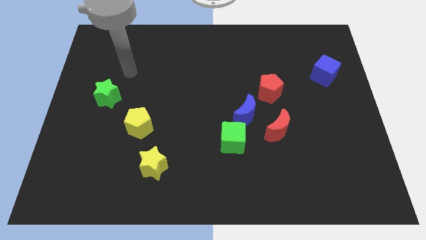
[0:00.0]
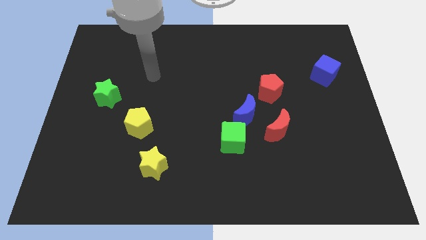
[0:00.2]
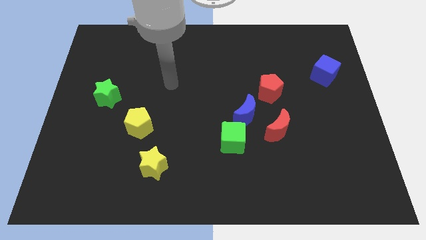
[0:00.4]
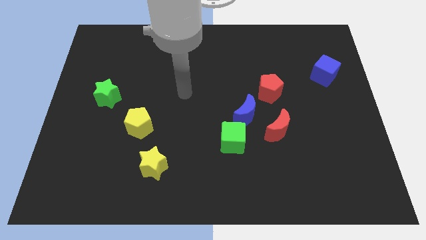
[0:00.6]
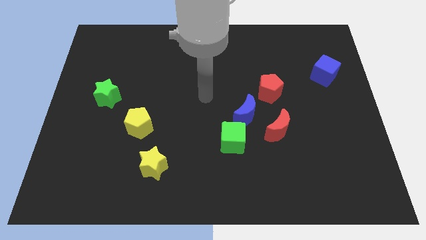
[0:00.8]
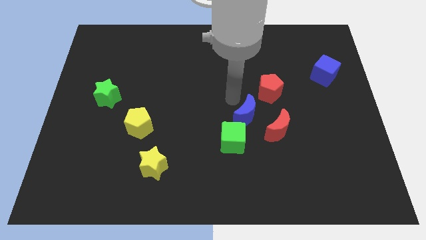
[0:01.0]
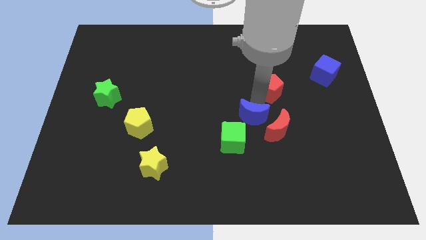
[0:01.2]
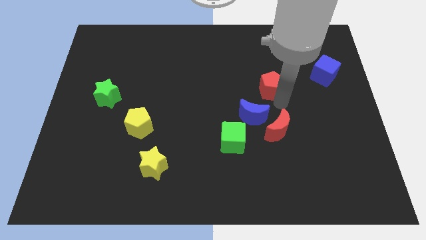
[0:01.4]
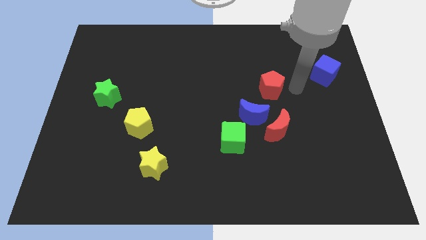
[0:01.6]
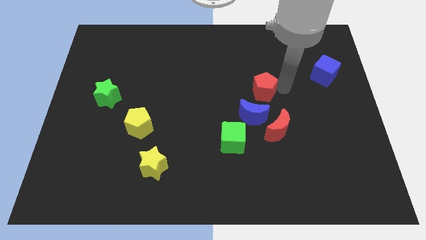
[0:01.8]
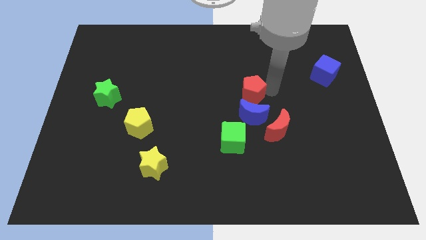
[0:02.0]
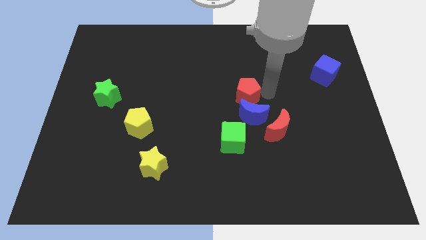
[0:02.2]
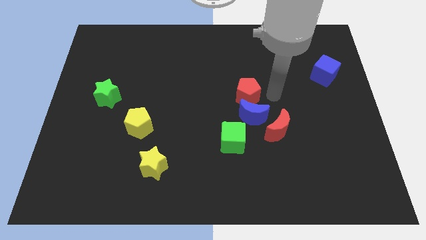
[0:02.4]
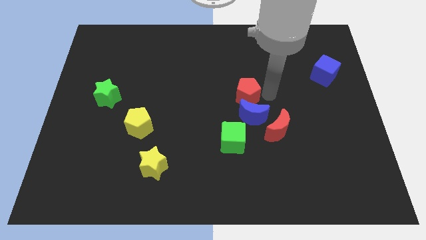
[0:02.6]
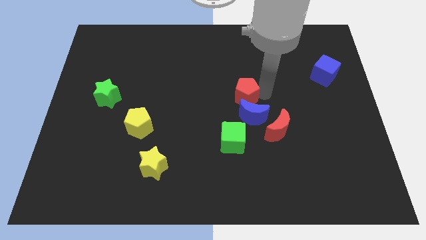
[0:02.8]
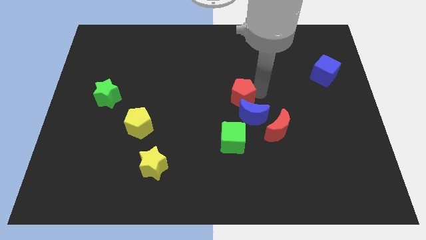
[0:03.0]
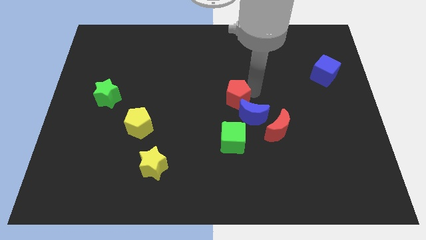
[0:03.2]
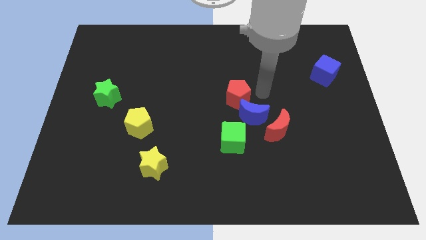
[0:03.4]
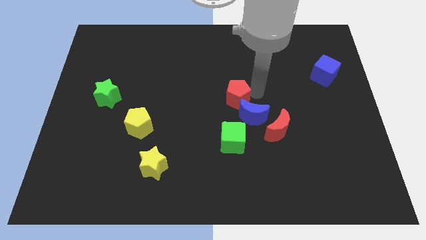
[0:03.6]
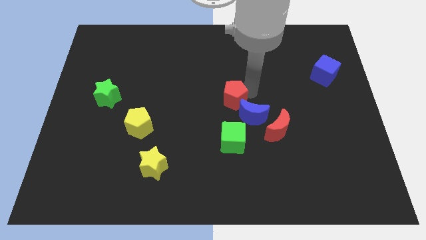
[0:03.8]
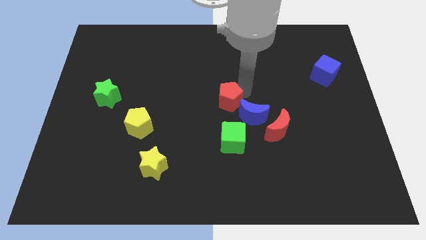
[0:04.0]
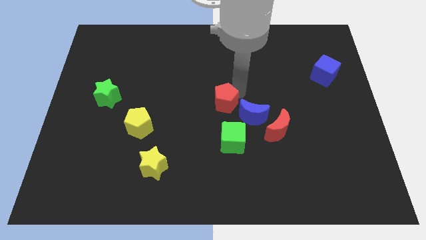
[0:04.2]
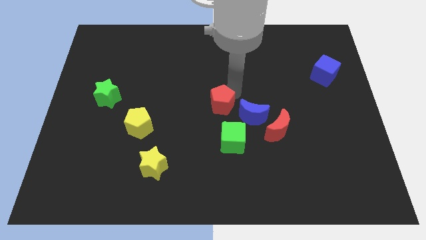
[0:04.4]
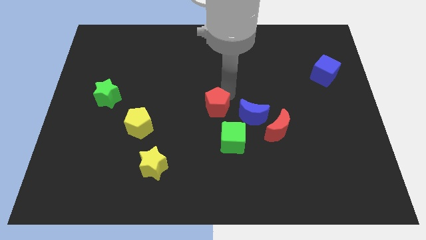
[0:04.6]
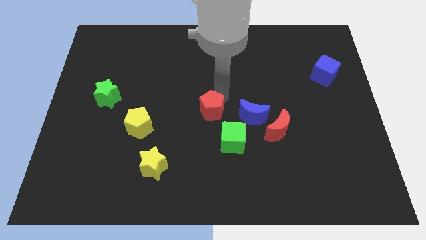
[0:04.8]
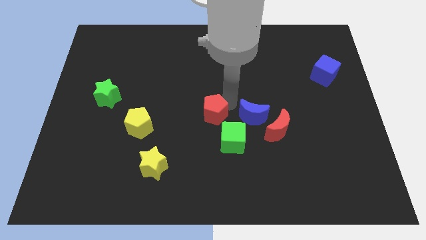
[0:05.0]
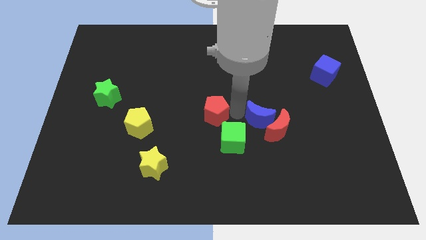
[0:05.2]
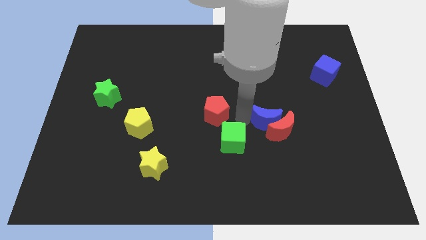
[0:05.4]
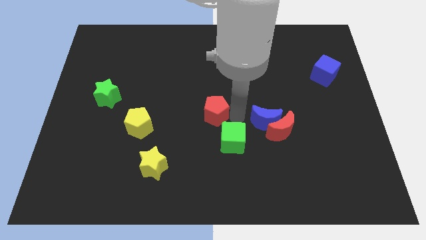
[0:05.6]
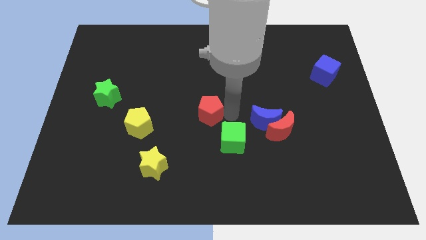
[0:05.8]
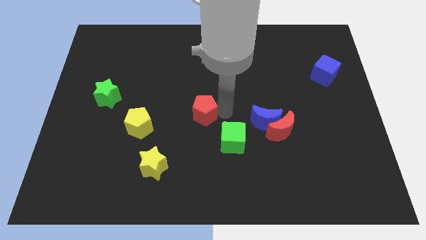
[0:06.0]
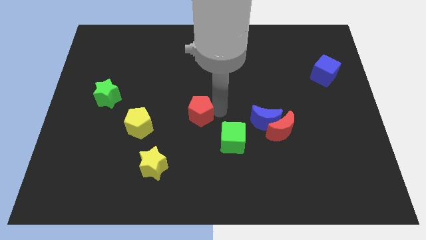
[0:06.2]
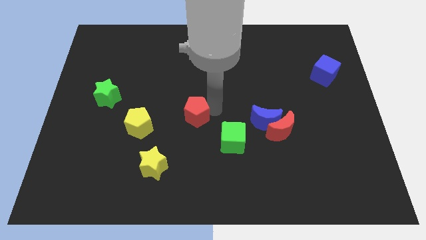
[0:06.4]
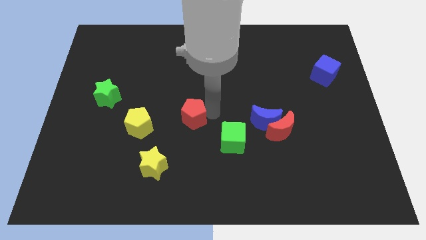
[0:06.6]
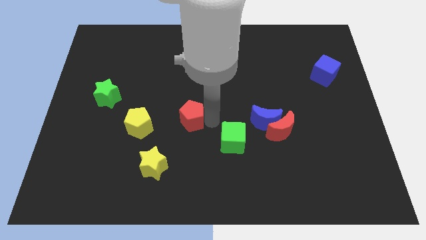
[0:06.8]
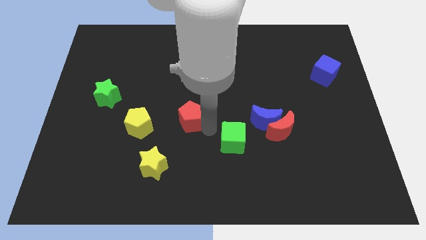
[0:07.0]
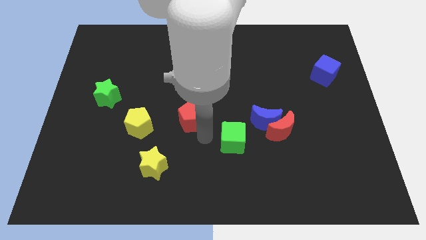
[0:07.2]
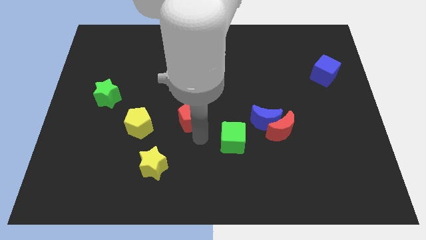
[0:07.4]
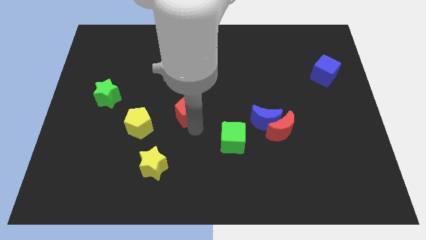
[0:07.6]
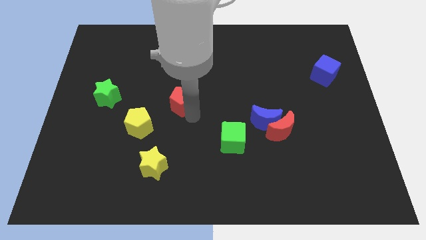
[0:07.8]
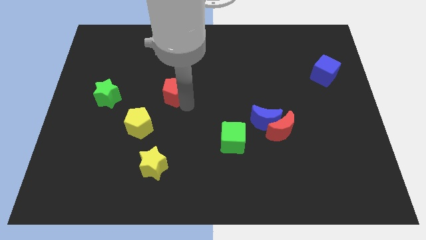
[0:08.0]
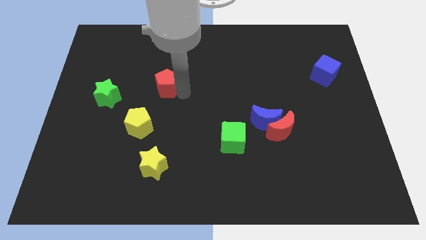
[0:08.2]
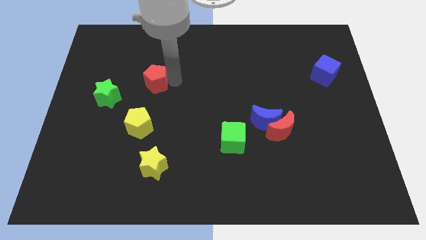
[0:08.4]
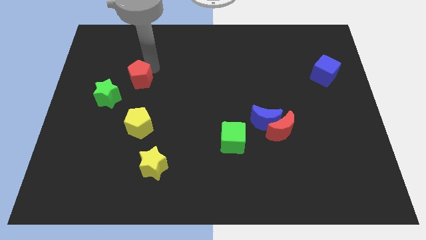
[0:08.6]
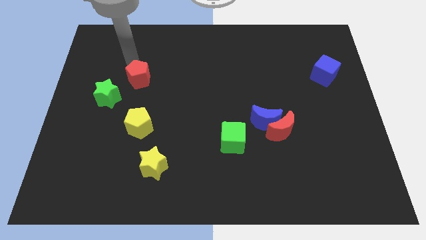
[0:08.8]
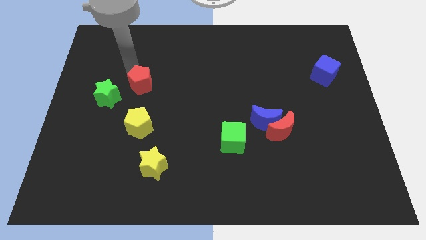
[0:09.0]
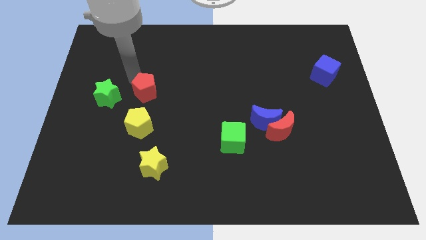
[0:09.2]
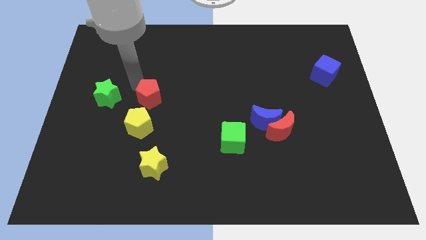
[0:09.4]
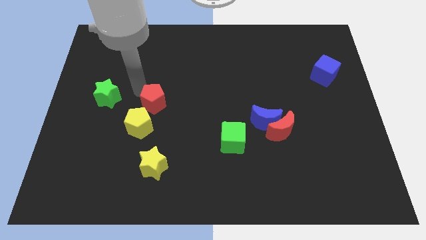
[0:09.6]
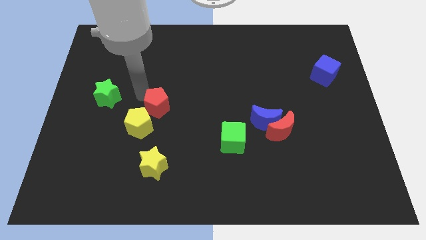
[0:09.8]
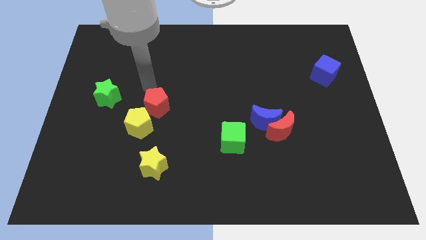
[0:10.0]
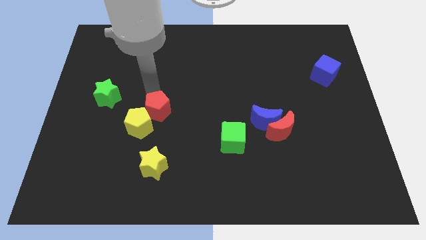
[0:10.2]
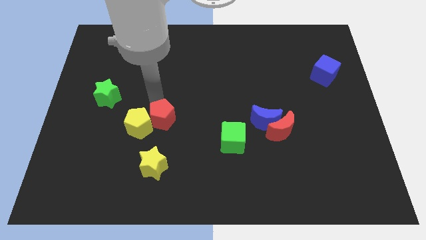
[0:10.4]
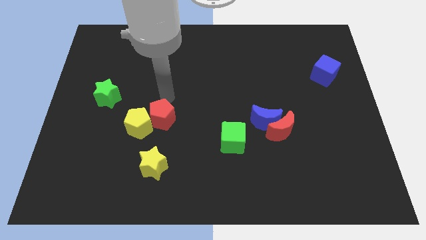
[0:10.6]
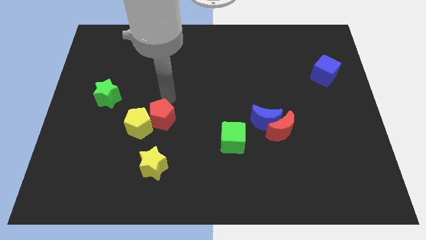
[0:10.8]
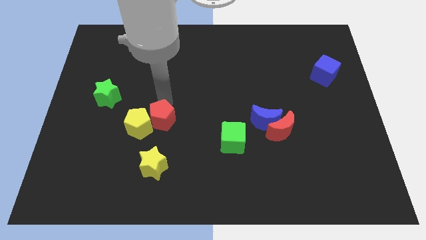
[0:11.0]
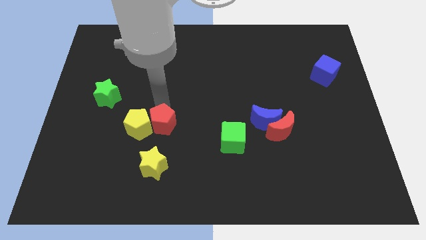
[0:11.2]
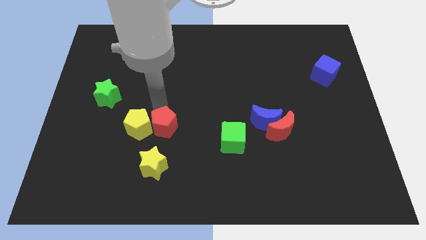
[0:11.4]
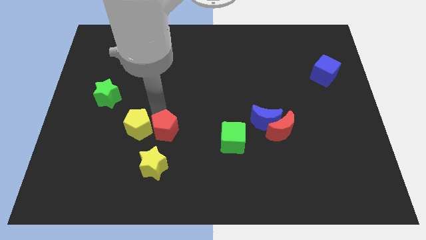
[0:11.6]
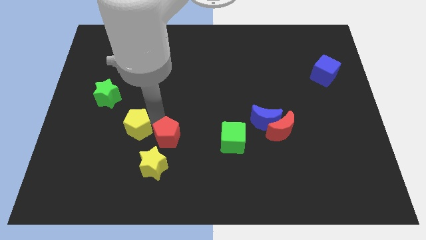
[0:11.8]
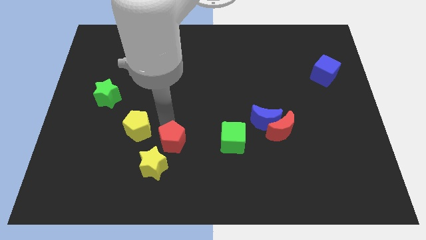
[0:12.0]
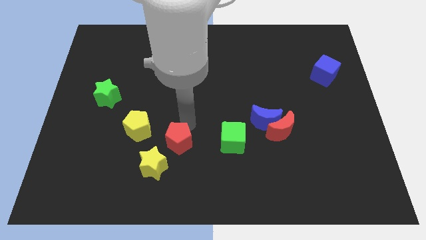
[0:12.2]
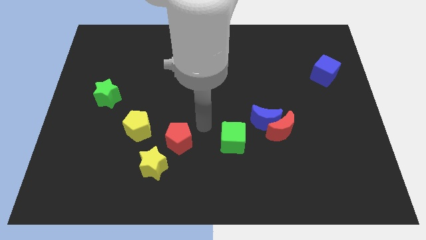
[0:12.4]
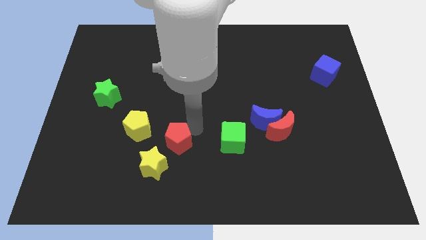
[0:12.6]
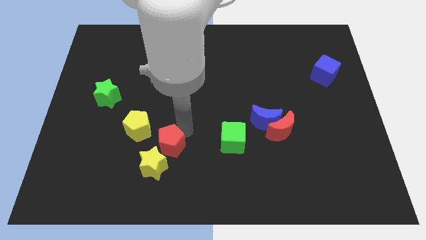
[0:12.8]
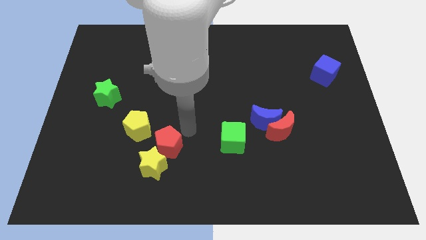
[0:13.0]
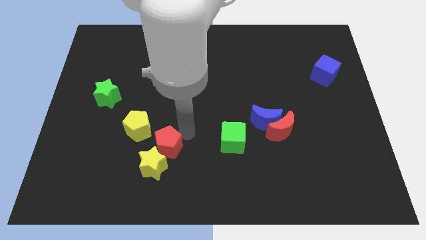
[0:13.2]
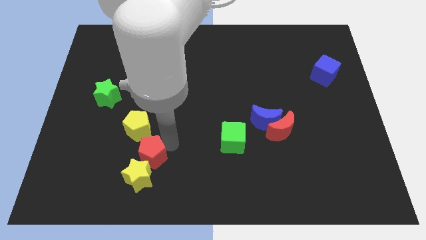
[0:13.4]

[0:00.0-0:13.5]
push the red pentagon below the yellow pentagon
